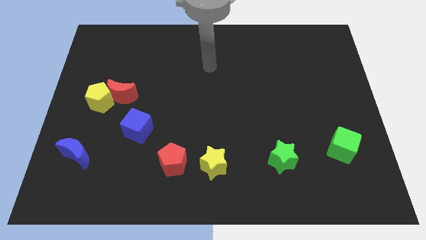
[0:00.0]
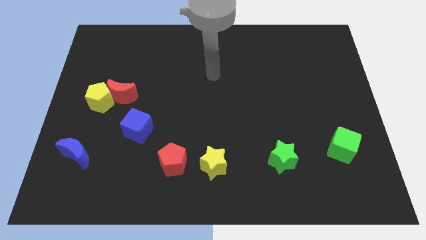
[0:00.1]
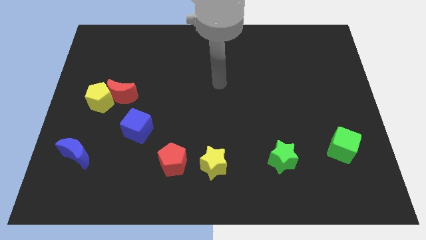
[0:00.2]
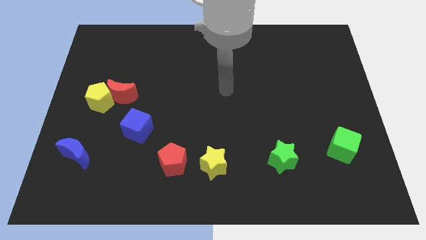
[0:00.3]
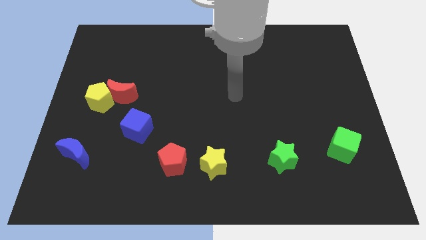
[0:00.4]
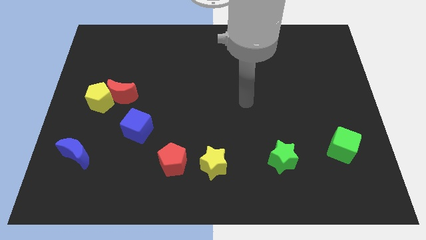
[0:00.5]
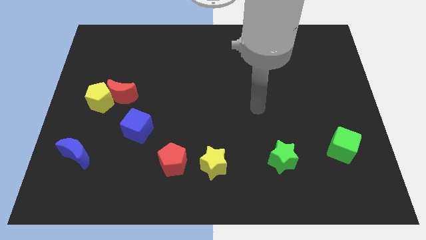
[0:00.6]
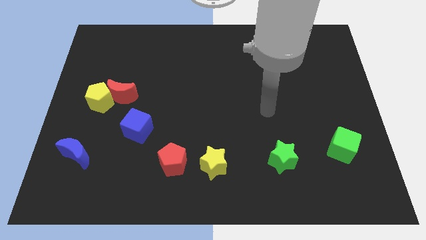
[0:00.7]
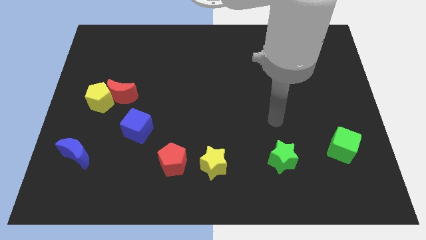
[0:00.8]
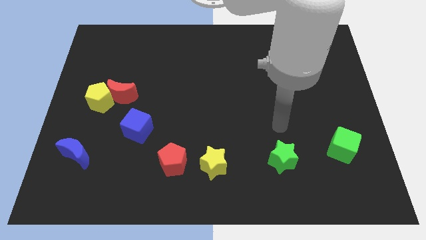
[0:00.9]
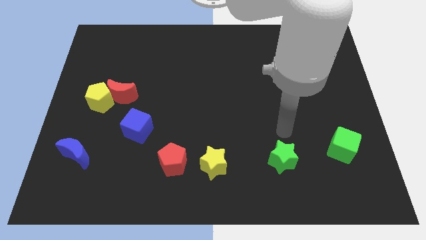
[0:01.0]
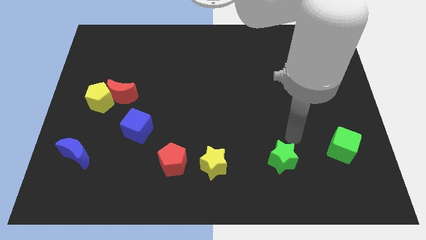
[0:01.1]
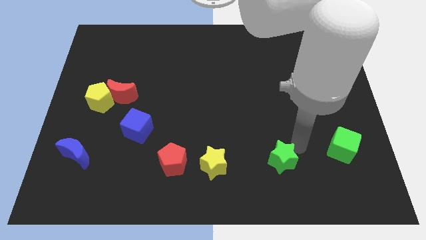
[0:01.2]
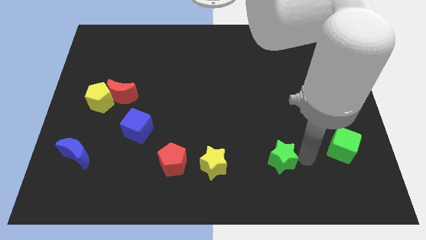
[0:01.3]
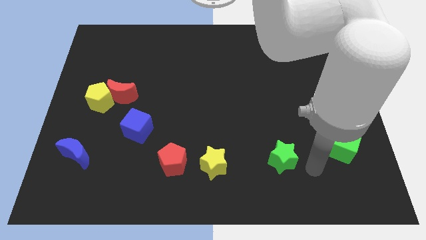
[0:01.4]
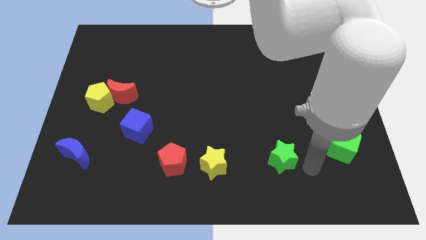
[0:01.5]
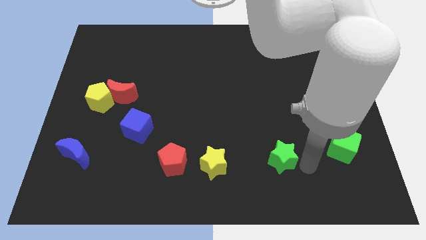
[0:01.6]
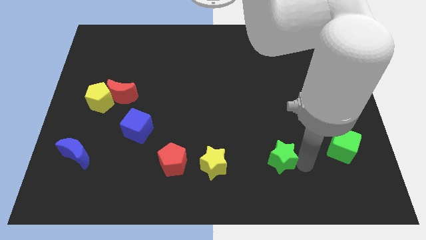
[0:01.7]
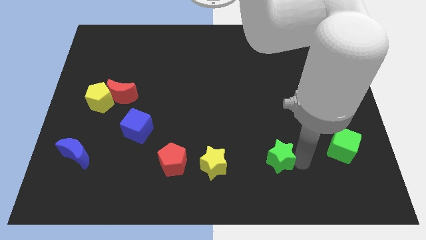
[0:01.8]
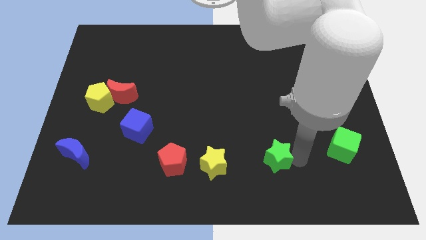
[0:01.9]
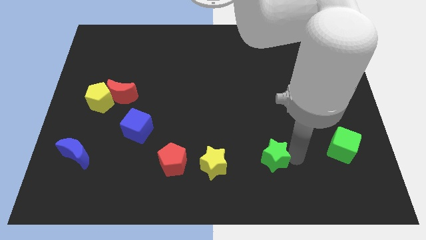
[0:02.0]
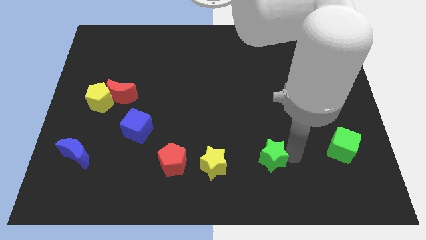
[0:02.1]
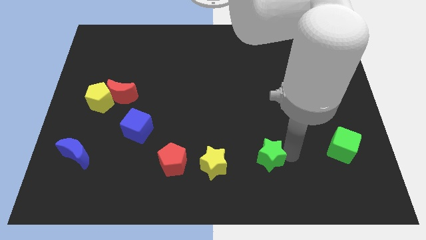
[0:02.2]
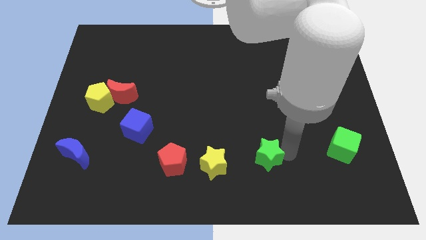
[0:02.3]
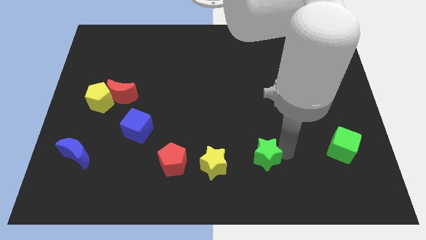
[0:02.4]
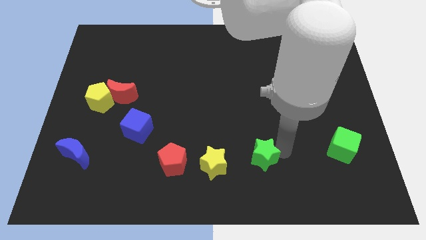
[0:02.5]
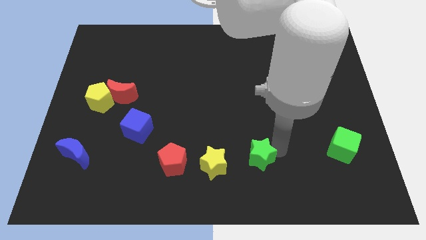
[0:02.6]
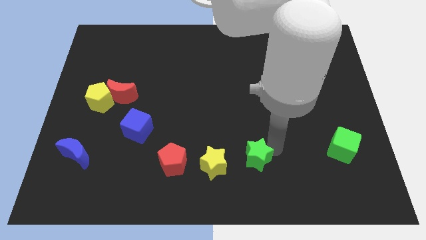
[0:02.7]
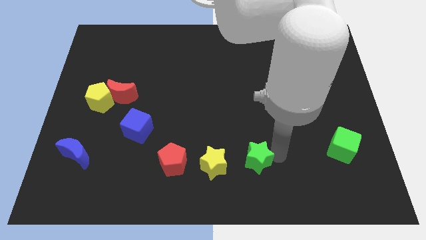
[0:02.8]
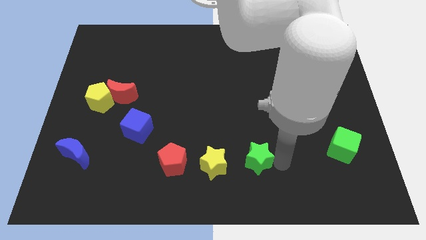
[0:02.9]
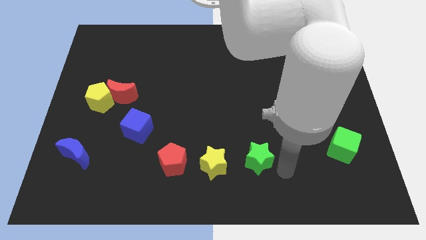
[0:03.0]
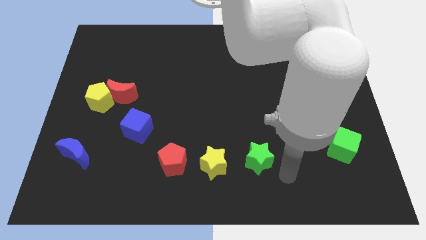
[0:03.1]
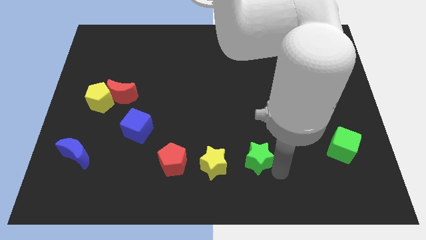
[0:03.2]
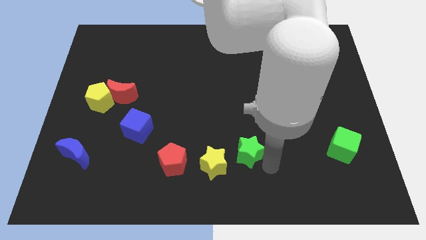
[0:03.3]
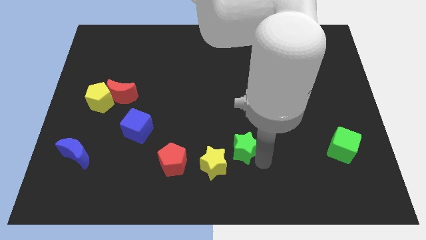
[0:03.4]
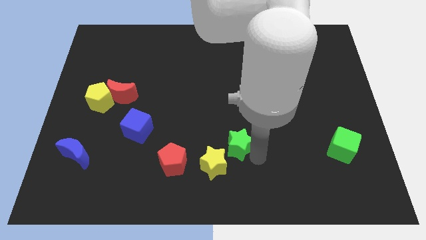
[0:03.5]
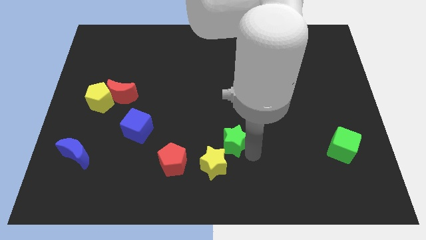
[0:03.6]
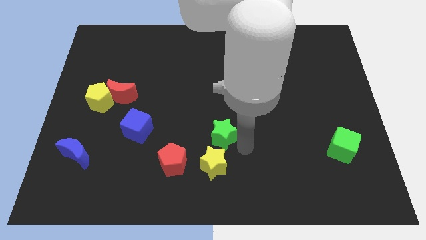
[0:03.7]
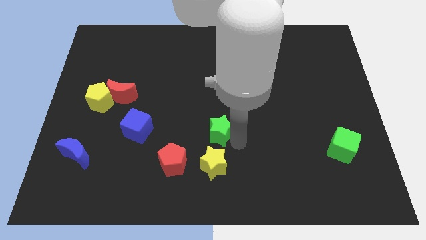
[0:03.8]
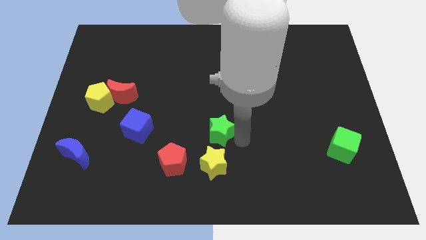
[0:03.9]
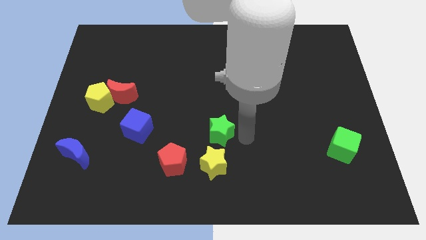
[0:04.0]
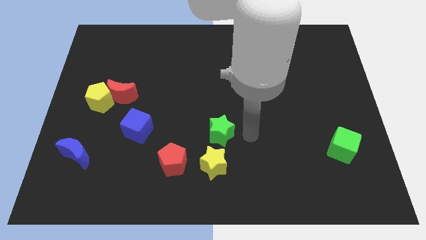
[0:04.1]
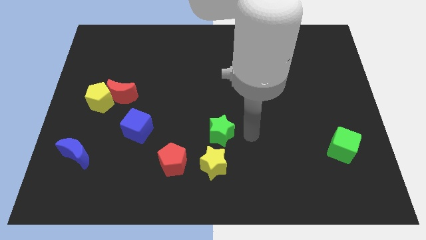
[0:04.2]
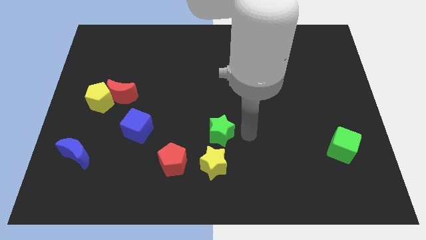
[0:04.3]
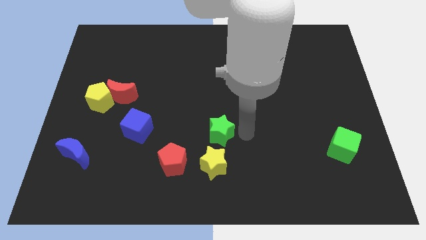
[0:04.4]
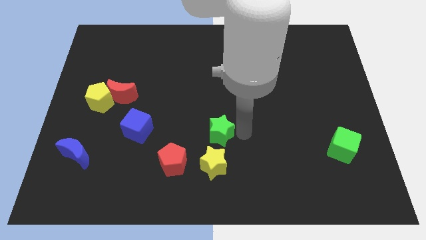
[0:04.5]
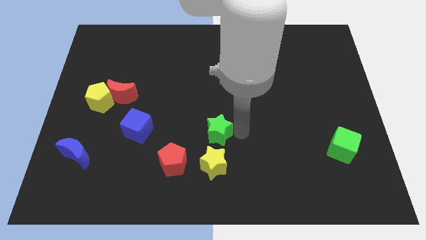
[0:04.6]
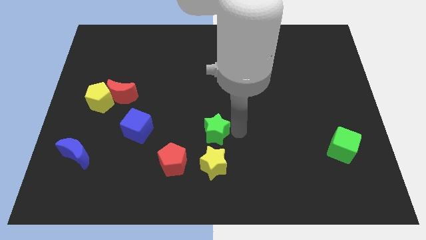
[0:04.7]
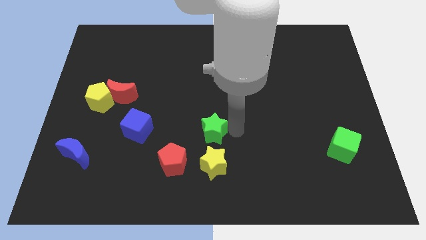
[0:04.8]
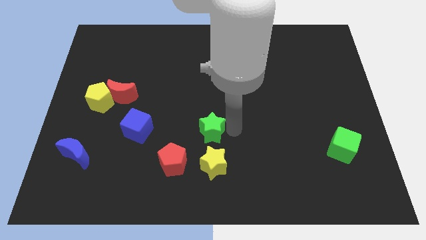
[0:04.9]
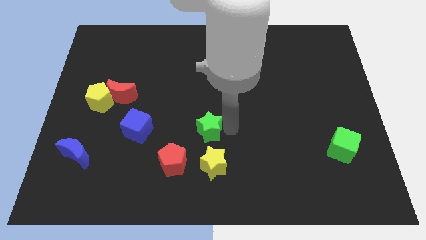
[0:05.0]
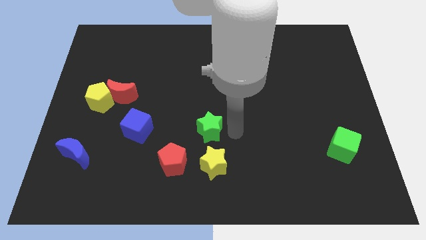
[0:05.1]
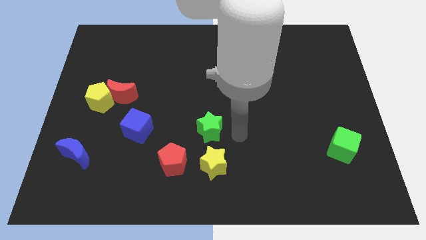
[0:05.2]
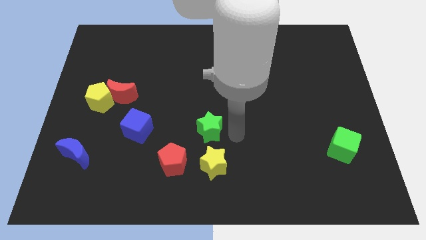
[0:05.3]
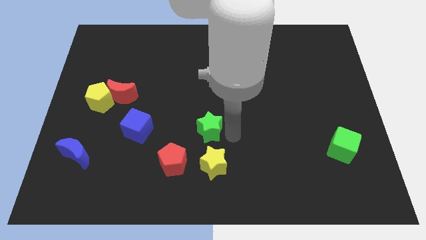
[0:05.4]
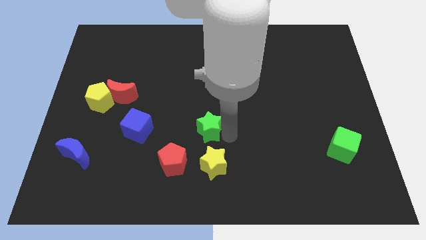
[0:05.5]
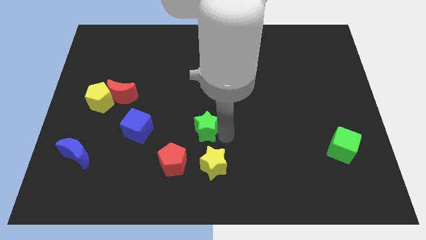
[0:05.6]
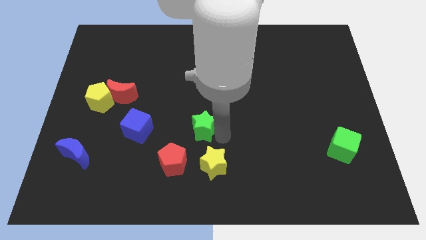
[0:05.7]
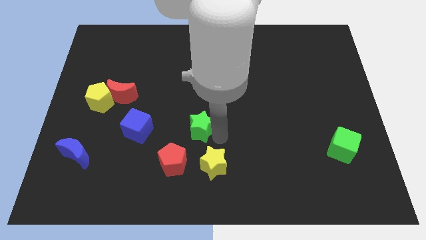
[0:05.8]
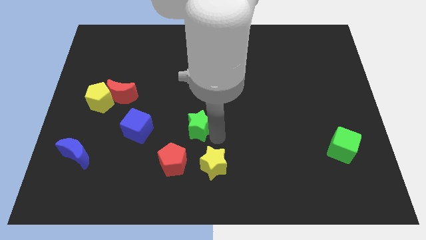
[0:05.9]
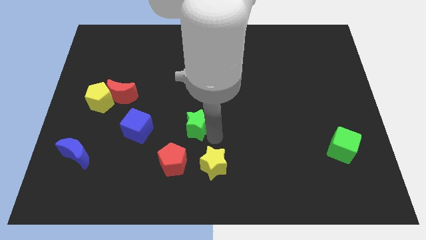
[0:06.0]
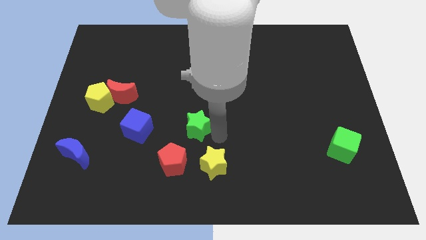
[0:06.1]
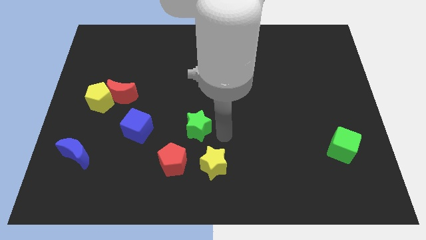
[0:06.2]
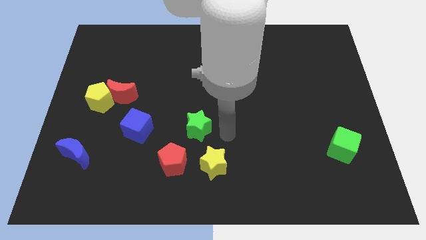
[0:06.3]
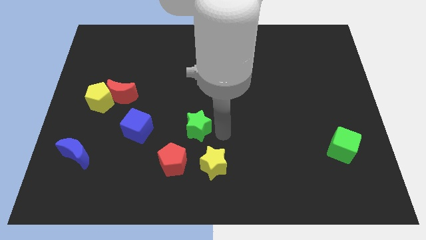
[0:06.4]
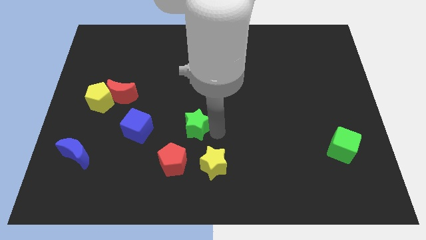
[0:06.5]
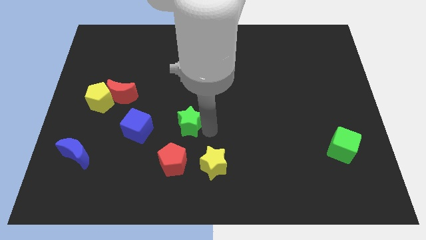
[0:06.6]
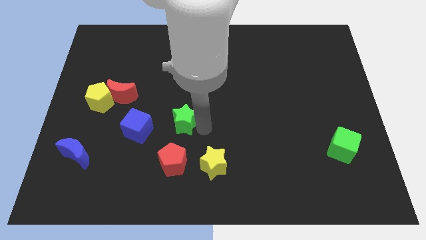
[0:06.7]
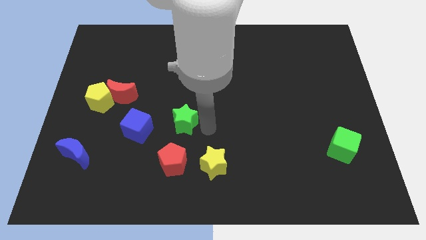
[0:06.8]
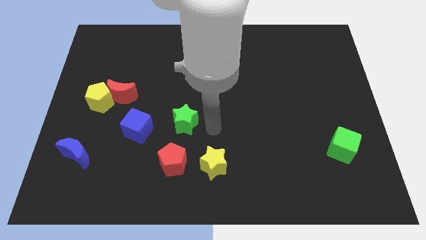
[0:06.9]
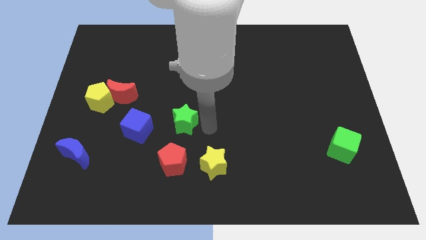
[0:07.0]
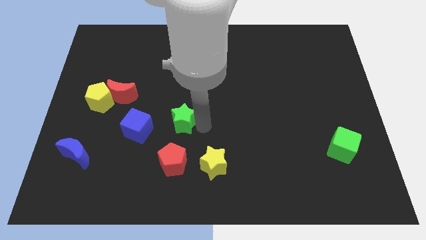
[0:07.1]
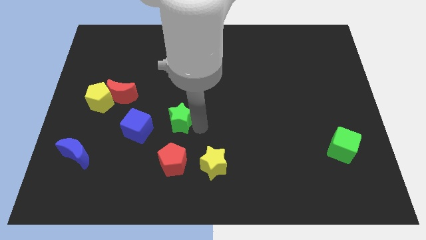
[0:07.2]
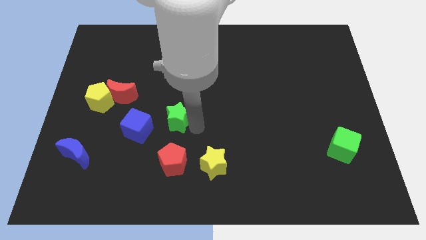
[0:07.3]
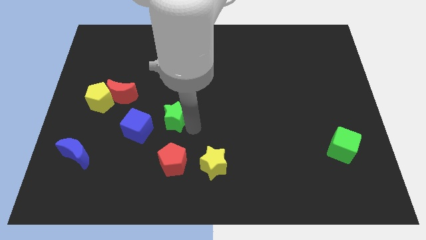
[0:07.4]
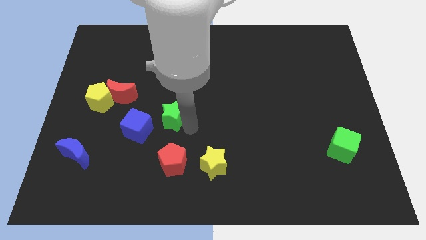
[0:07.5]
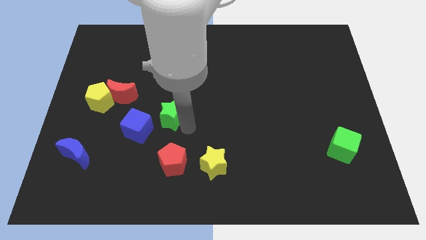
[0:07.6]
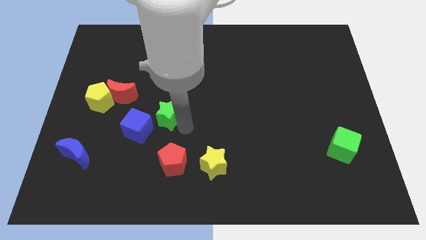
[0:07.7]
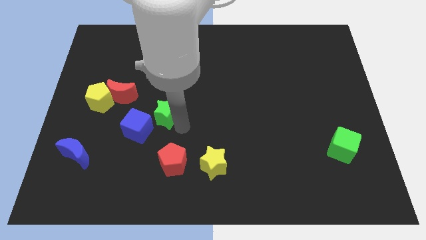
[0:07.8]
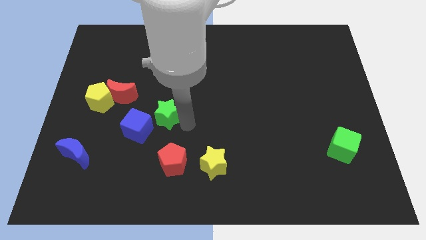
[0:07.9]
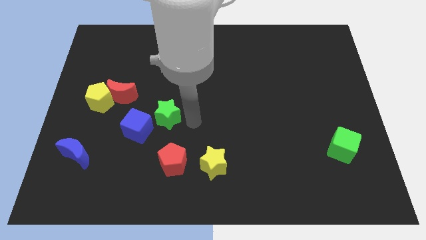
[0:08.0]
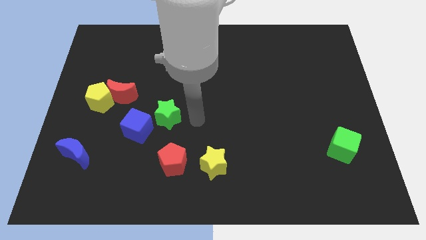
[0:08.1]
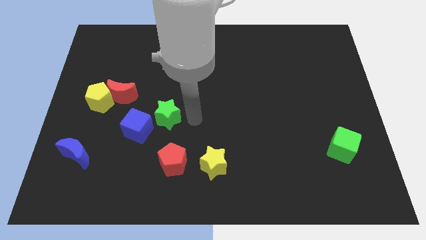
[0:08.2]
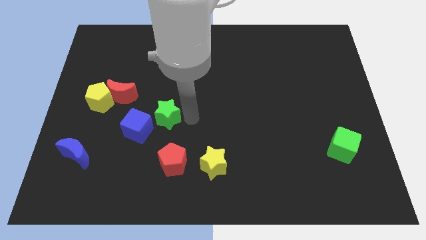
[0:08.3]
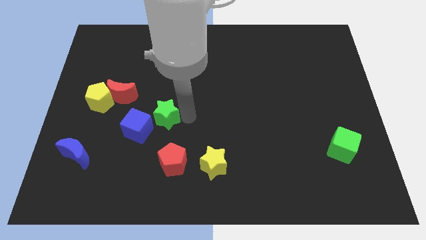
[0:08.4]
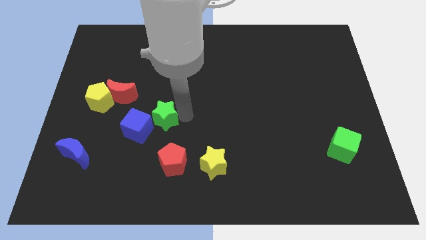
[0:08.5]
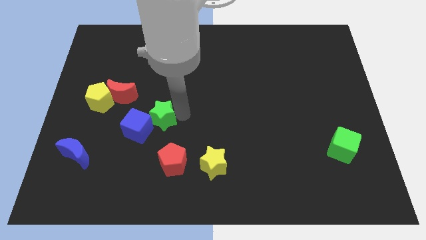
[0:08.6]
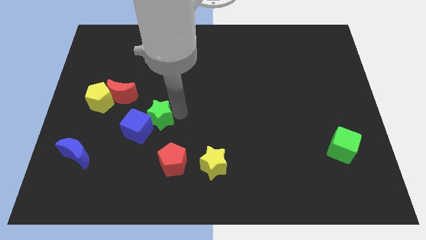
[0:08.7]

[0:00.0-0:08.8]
put the green star to the bottom right of the red moon
